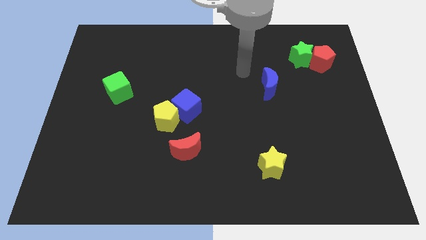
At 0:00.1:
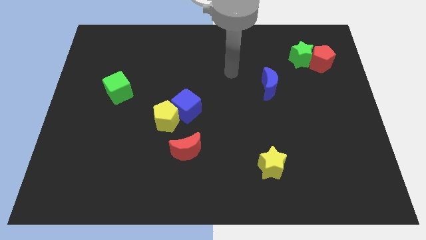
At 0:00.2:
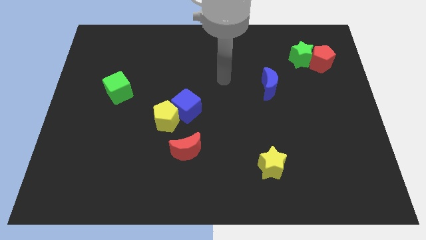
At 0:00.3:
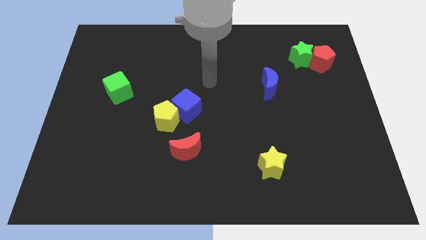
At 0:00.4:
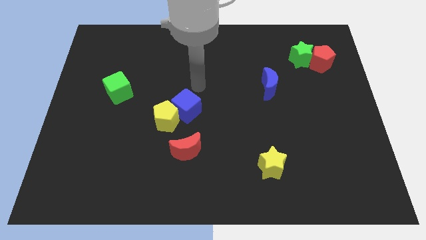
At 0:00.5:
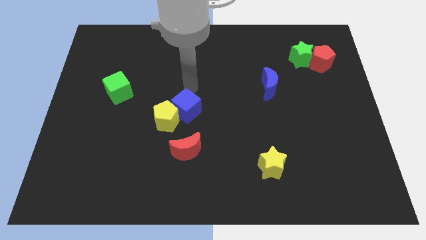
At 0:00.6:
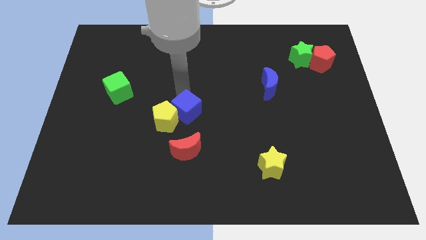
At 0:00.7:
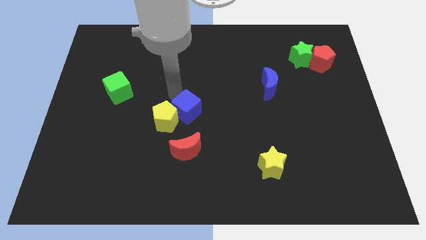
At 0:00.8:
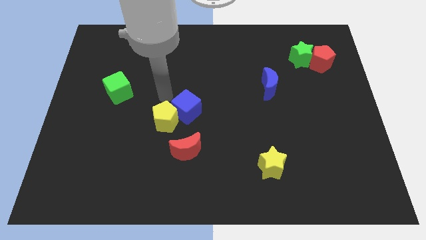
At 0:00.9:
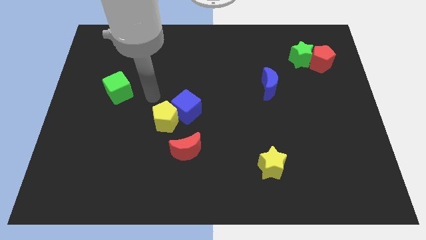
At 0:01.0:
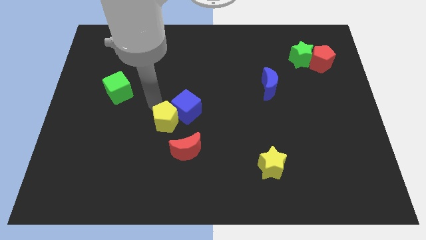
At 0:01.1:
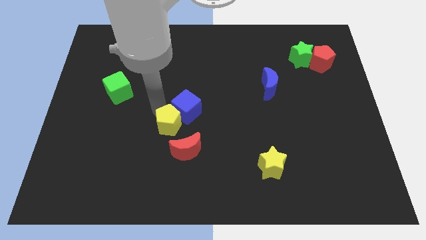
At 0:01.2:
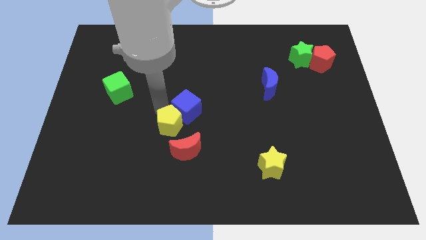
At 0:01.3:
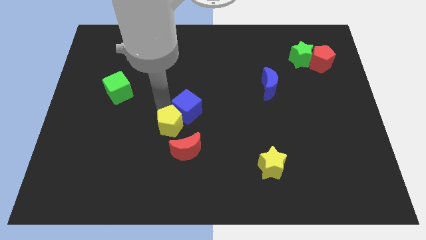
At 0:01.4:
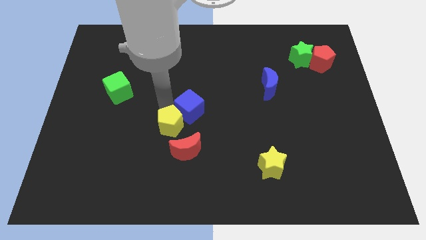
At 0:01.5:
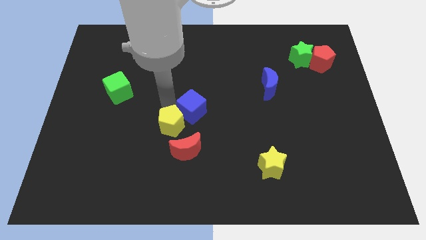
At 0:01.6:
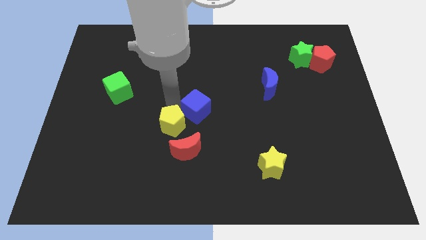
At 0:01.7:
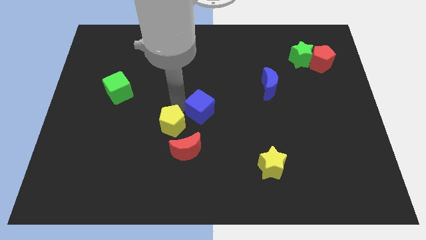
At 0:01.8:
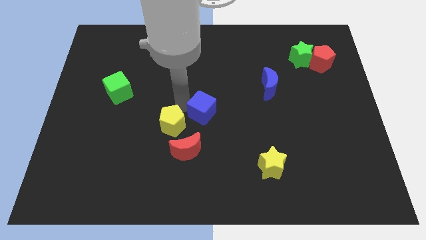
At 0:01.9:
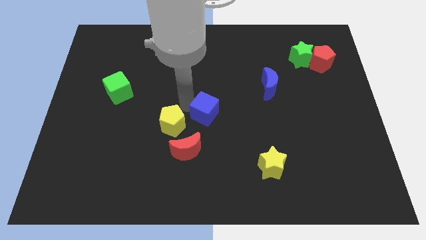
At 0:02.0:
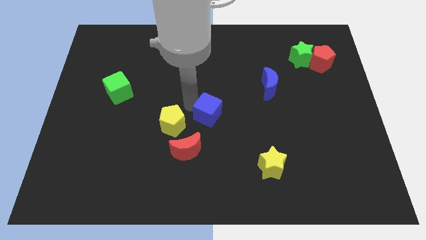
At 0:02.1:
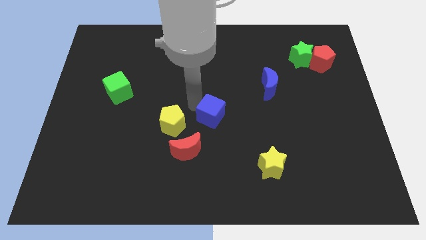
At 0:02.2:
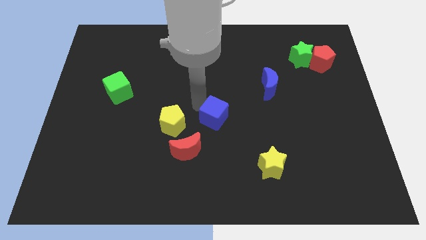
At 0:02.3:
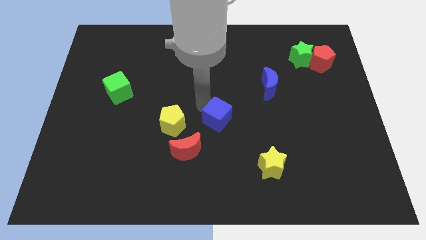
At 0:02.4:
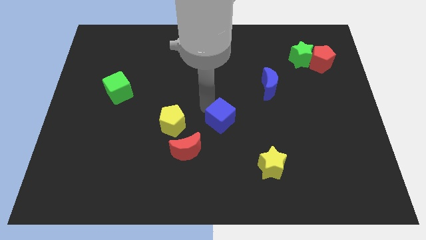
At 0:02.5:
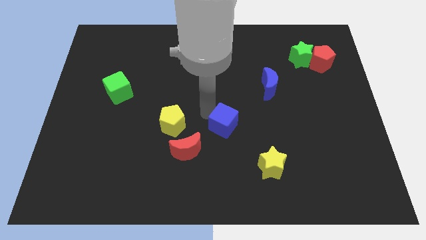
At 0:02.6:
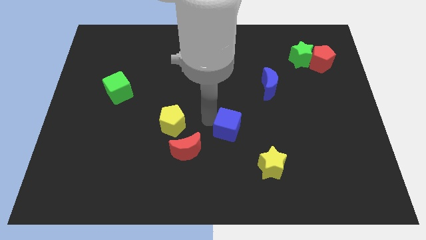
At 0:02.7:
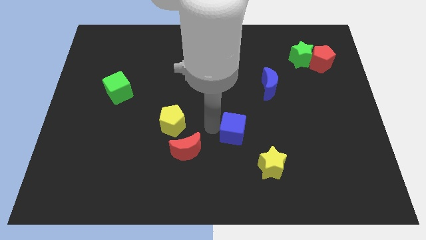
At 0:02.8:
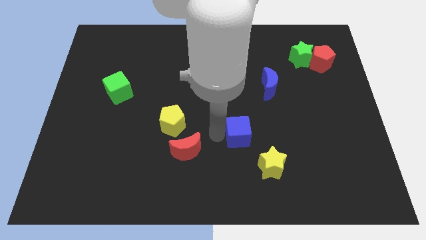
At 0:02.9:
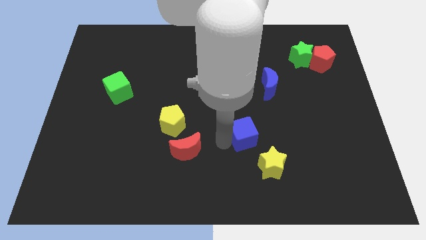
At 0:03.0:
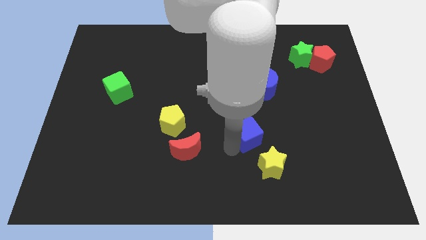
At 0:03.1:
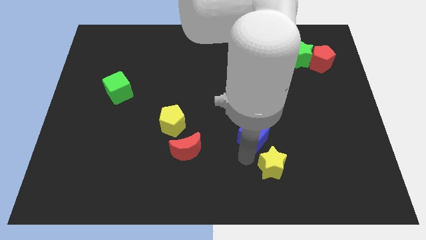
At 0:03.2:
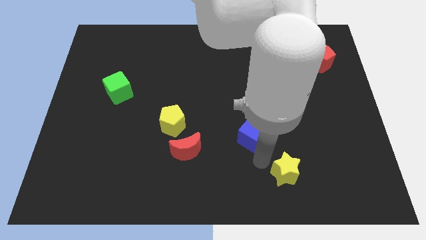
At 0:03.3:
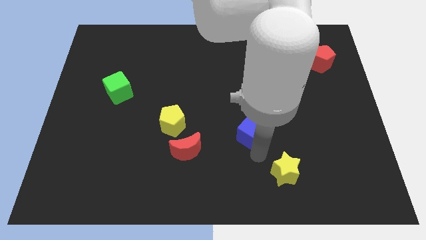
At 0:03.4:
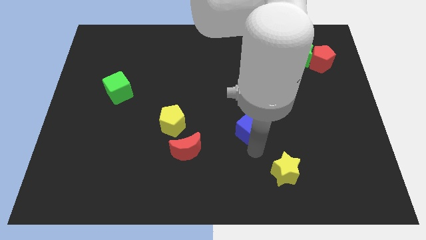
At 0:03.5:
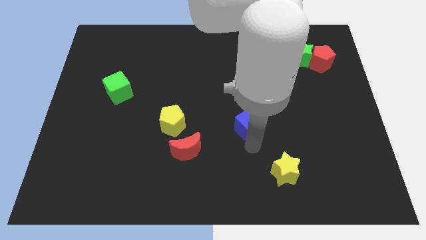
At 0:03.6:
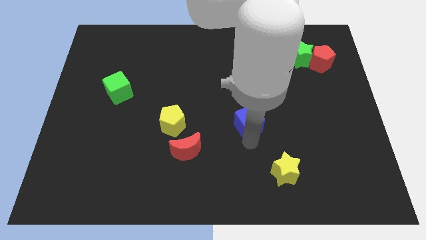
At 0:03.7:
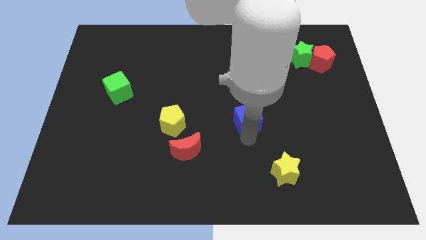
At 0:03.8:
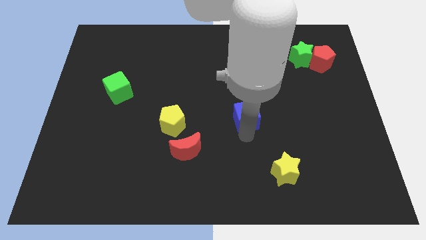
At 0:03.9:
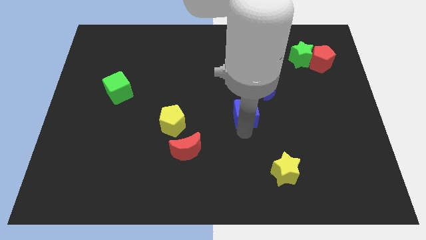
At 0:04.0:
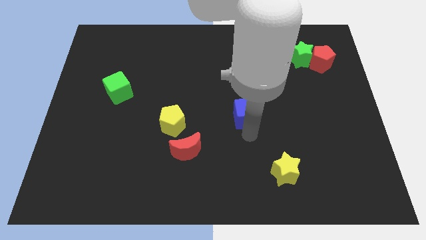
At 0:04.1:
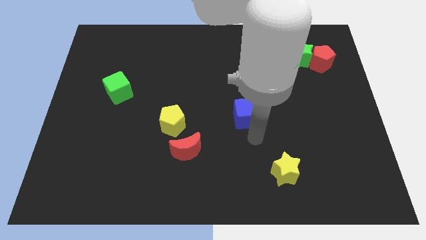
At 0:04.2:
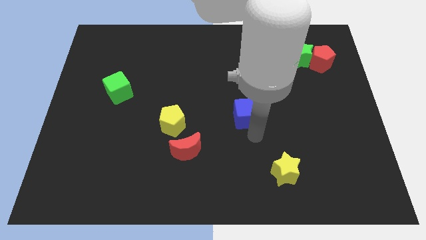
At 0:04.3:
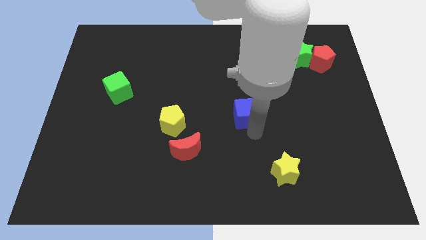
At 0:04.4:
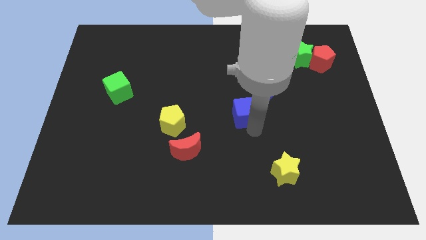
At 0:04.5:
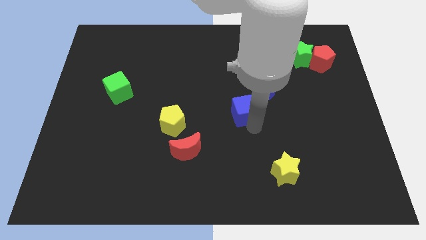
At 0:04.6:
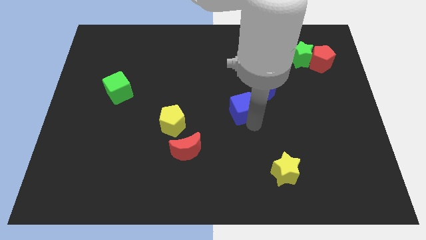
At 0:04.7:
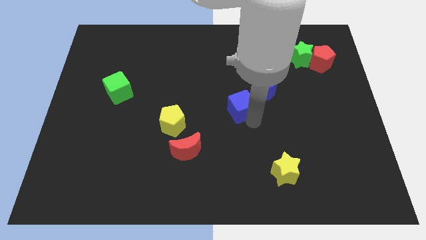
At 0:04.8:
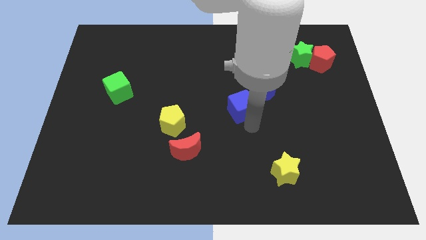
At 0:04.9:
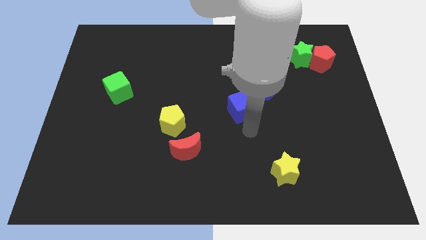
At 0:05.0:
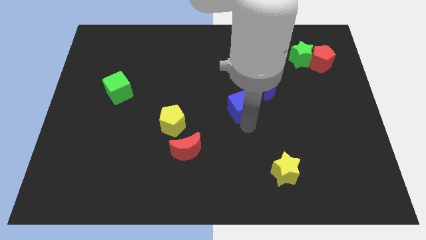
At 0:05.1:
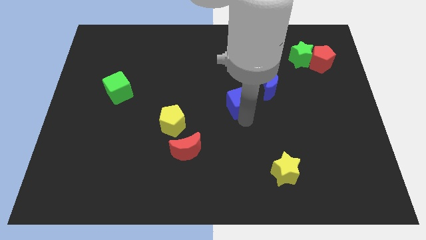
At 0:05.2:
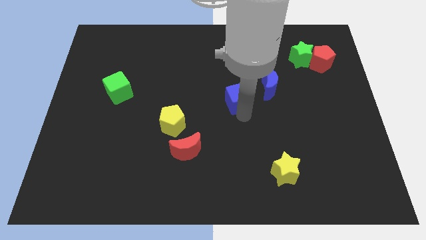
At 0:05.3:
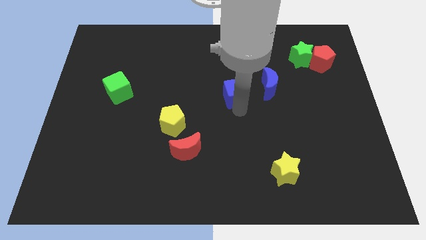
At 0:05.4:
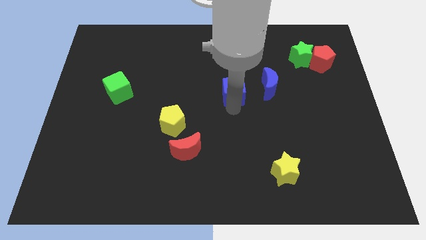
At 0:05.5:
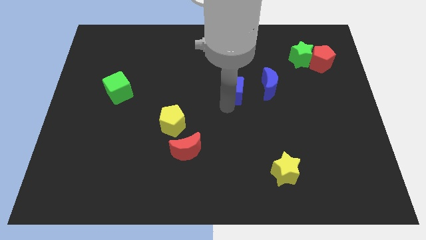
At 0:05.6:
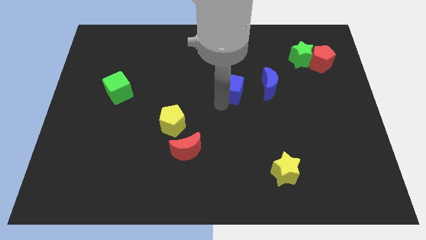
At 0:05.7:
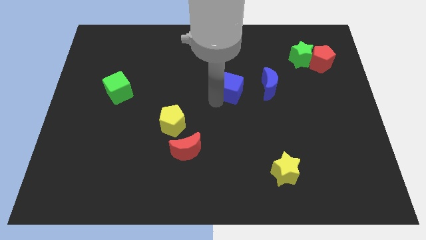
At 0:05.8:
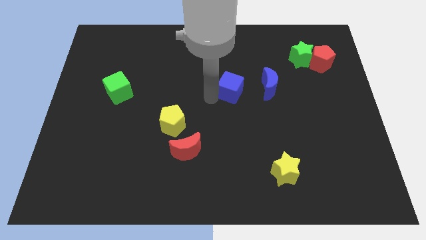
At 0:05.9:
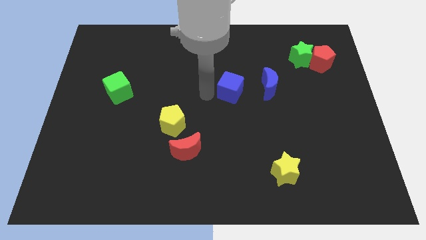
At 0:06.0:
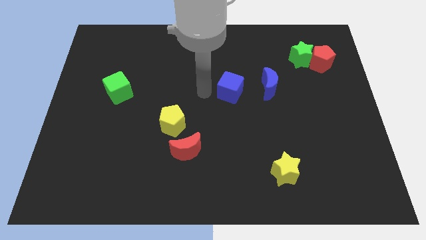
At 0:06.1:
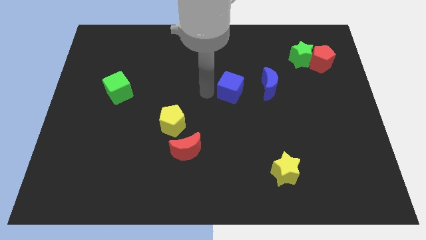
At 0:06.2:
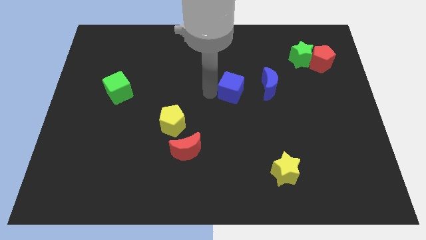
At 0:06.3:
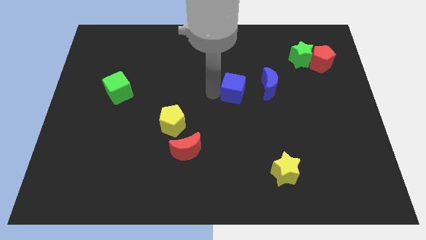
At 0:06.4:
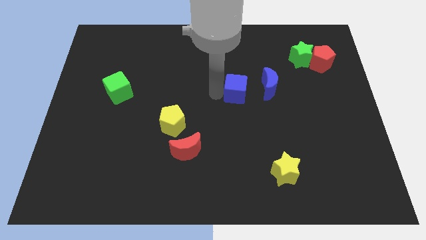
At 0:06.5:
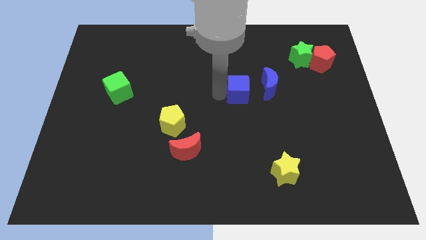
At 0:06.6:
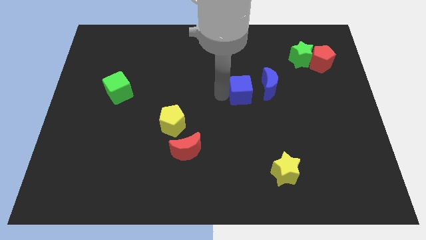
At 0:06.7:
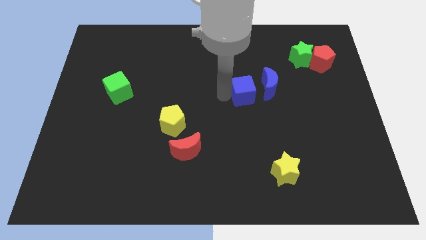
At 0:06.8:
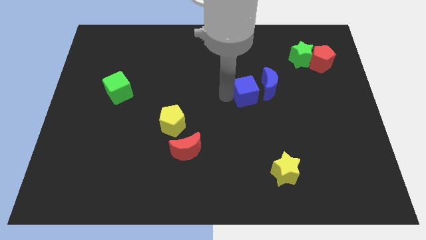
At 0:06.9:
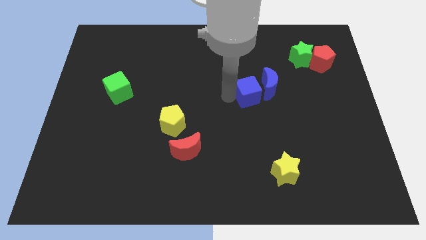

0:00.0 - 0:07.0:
slide the blue cube close to the blue moon
